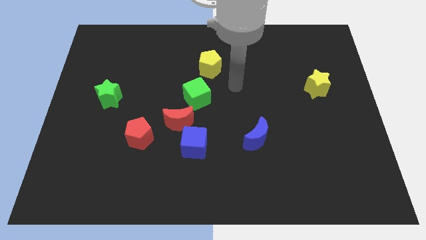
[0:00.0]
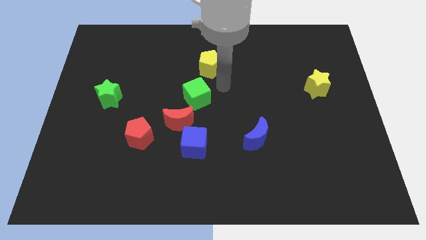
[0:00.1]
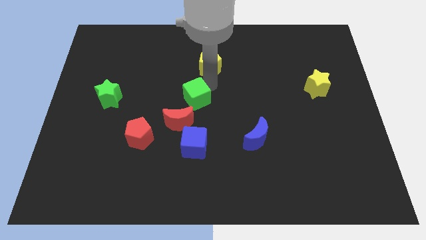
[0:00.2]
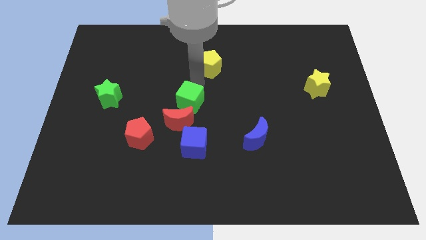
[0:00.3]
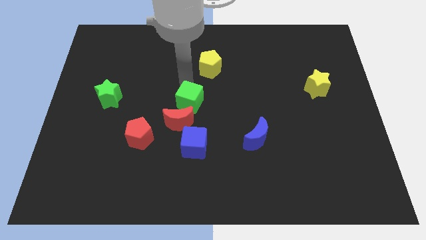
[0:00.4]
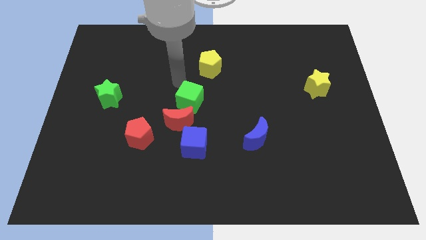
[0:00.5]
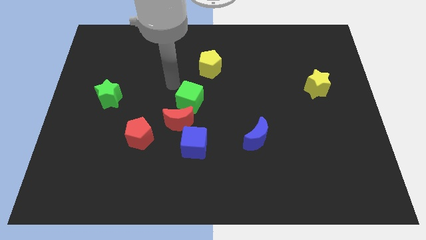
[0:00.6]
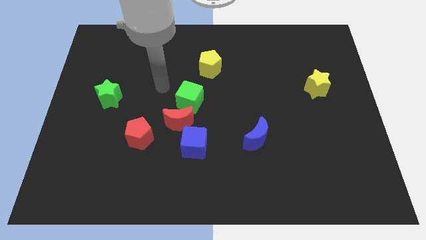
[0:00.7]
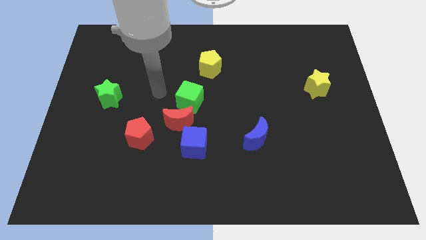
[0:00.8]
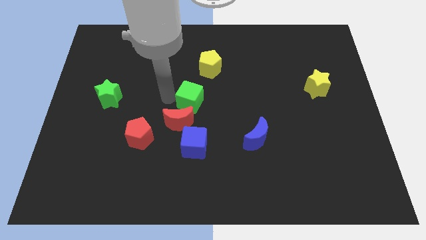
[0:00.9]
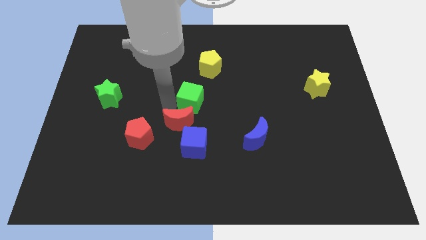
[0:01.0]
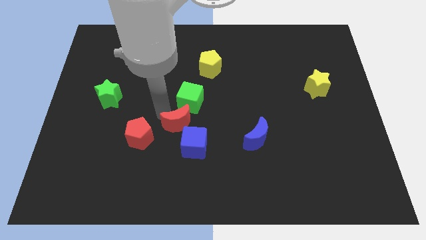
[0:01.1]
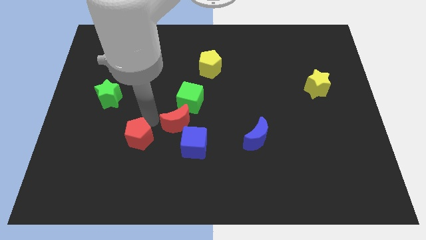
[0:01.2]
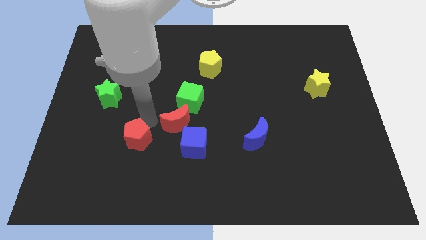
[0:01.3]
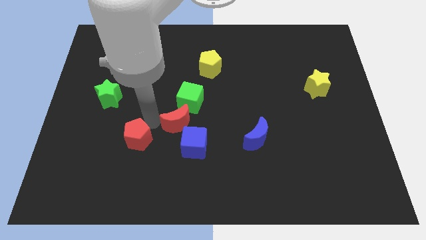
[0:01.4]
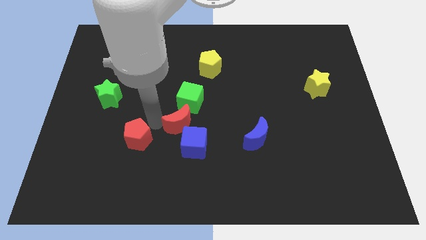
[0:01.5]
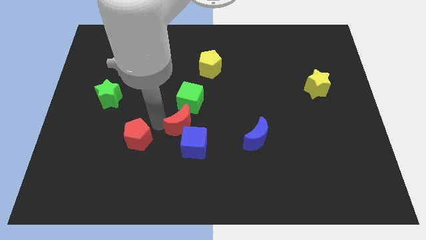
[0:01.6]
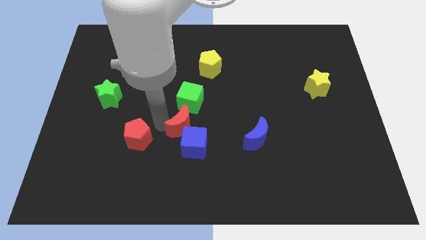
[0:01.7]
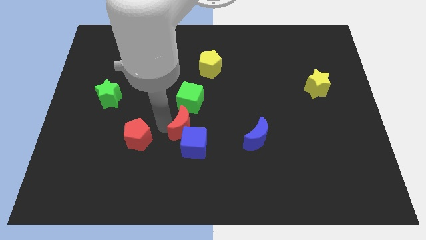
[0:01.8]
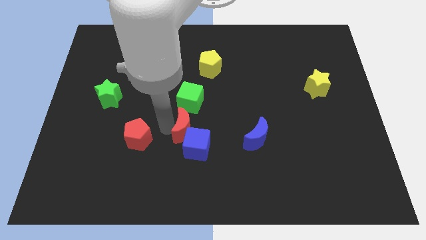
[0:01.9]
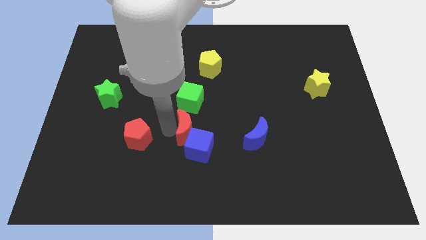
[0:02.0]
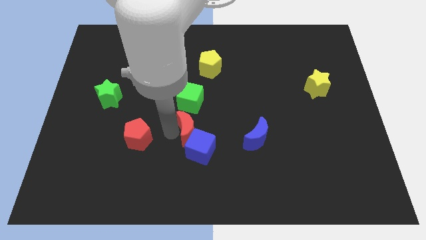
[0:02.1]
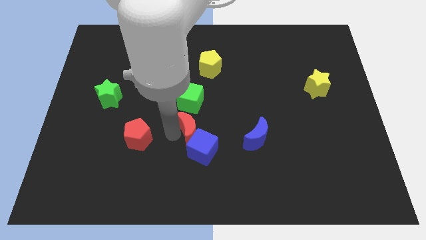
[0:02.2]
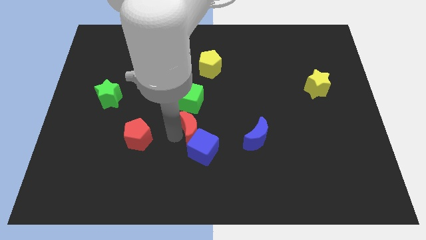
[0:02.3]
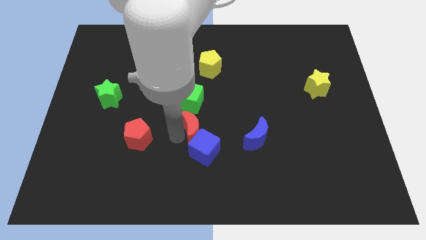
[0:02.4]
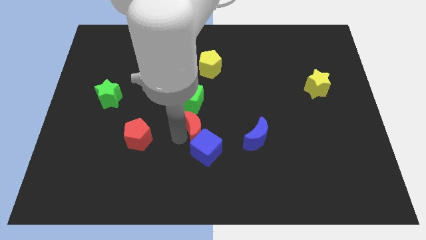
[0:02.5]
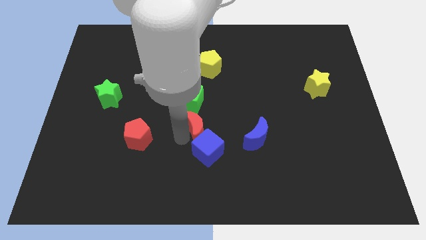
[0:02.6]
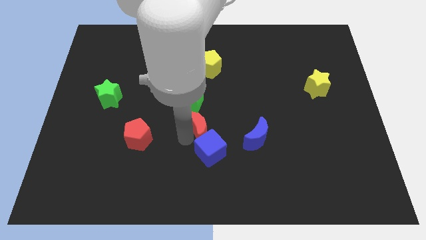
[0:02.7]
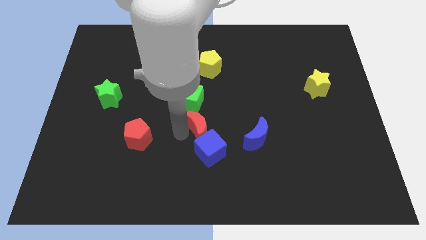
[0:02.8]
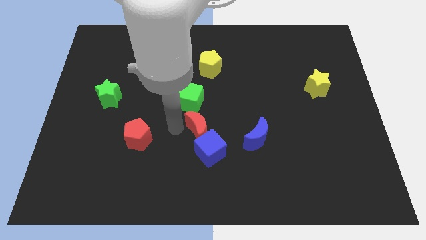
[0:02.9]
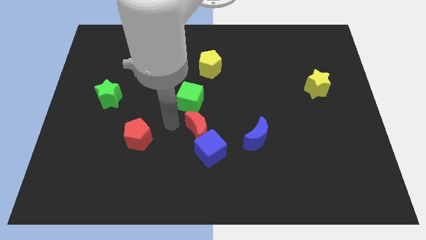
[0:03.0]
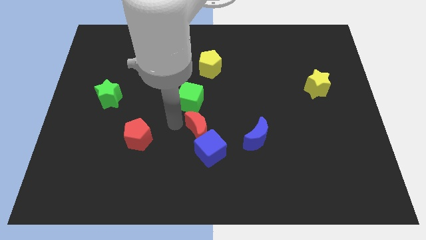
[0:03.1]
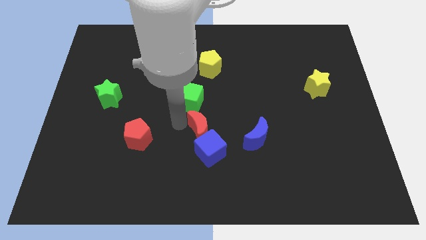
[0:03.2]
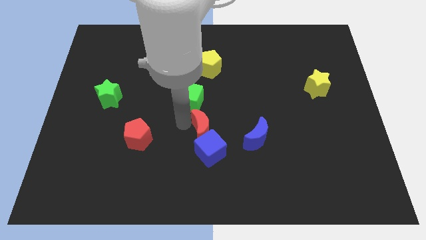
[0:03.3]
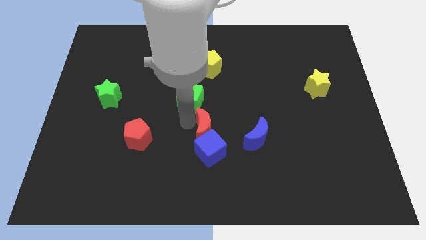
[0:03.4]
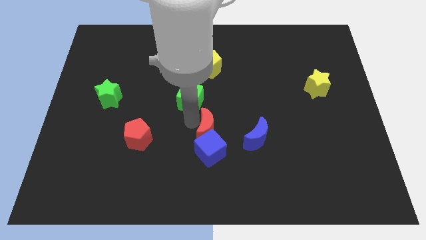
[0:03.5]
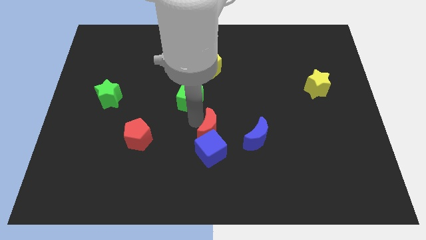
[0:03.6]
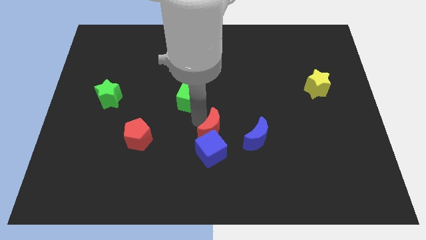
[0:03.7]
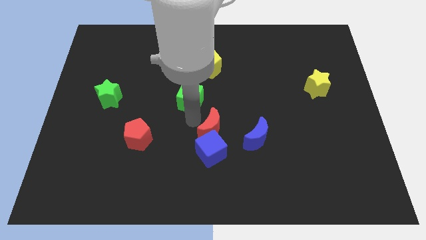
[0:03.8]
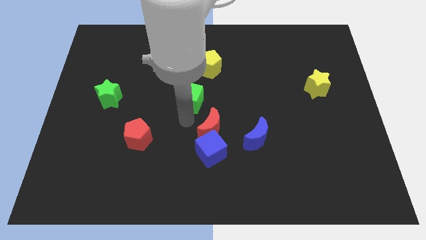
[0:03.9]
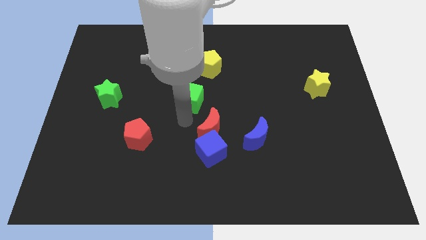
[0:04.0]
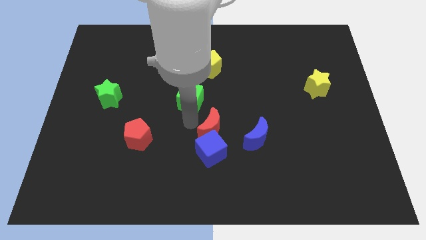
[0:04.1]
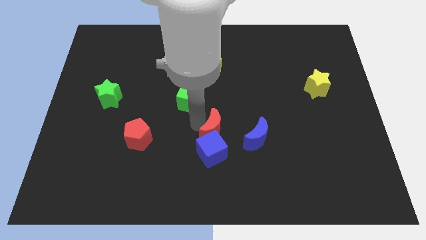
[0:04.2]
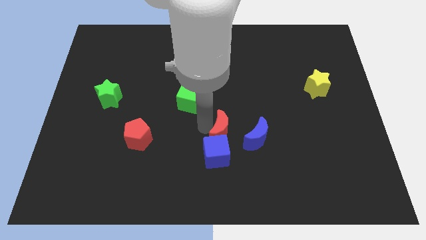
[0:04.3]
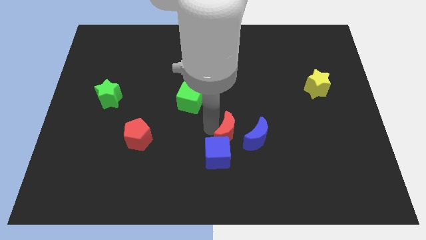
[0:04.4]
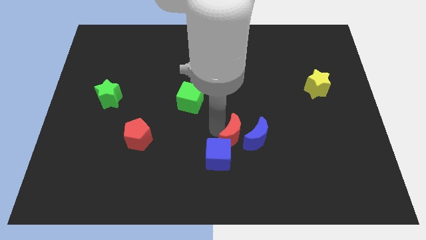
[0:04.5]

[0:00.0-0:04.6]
put the red moon next to the blue moon

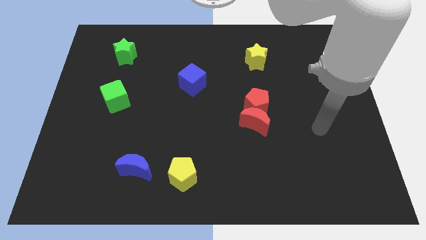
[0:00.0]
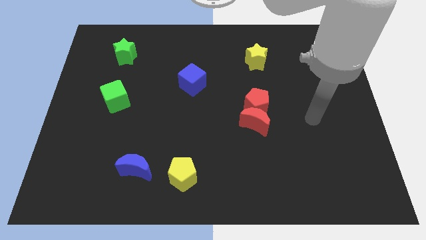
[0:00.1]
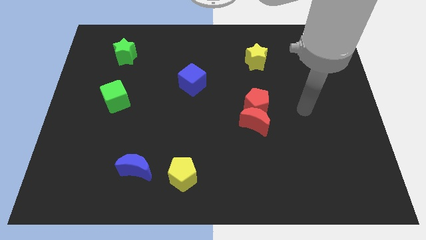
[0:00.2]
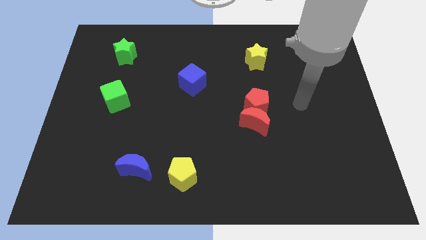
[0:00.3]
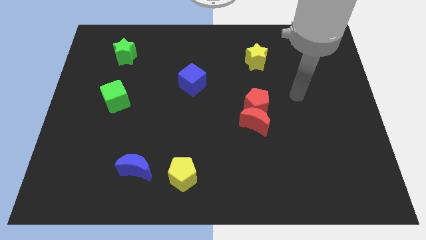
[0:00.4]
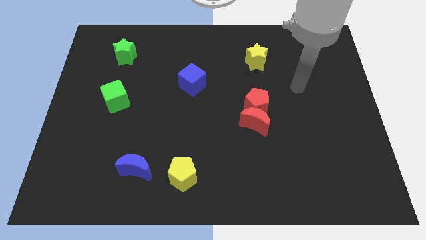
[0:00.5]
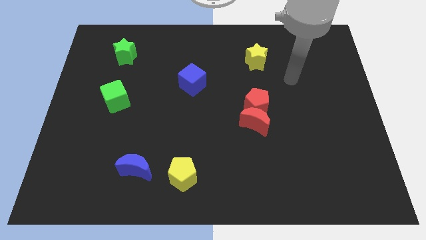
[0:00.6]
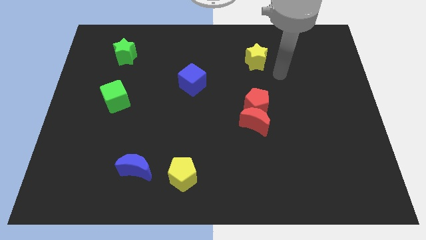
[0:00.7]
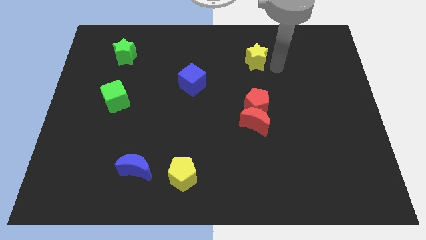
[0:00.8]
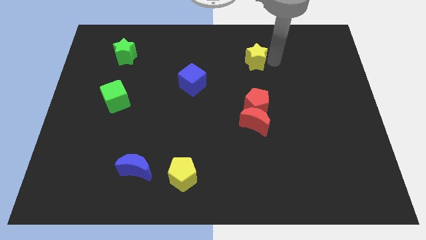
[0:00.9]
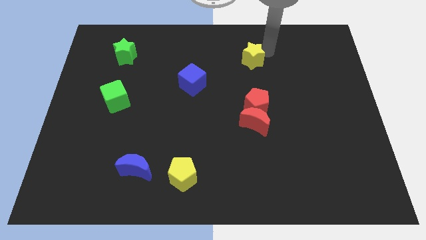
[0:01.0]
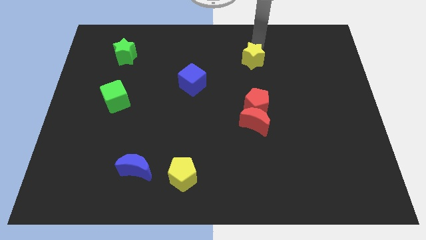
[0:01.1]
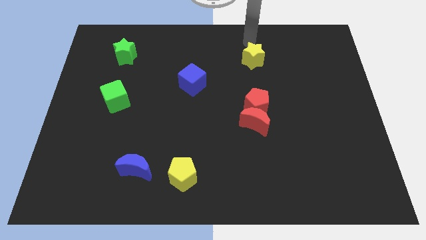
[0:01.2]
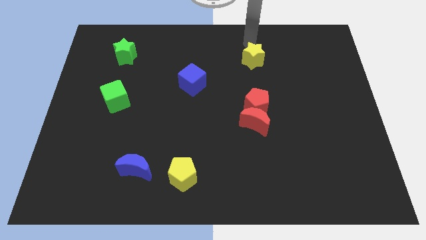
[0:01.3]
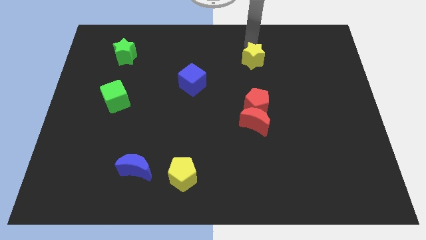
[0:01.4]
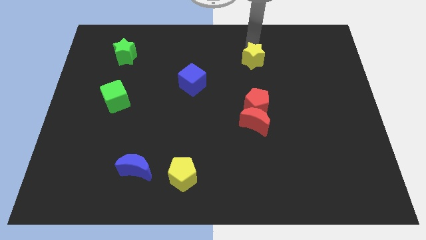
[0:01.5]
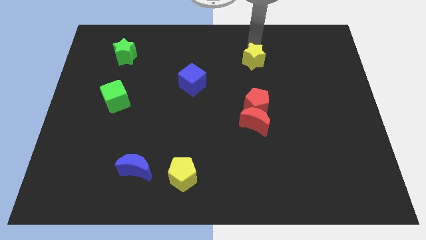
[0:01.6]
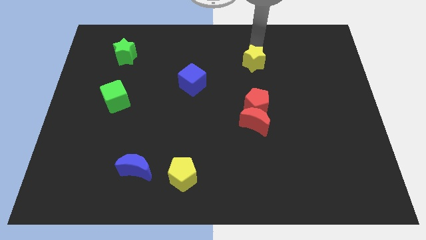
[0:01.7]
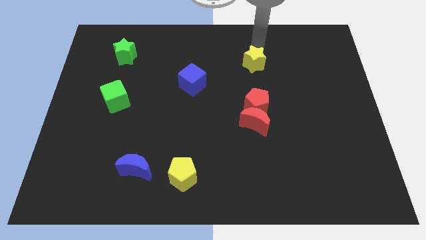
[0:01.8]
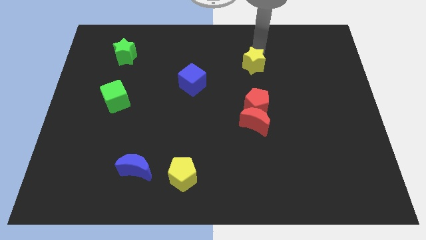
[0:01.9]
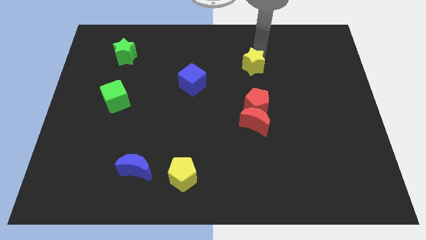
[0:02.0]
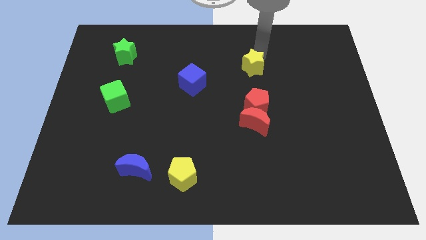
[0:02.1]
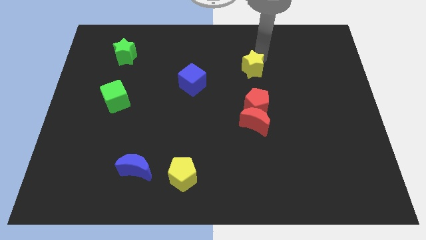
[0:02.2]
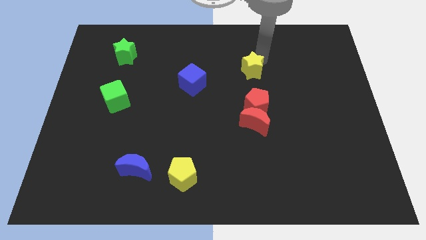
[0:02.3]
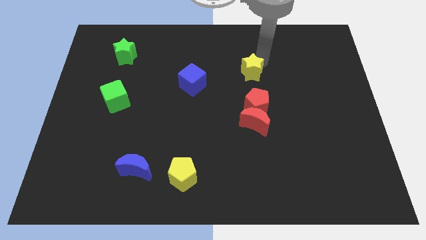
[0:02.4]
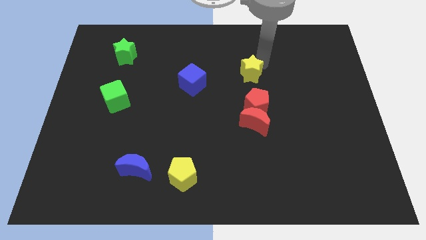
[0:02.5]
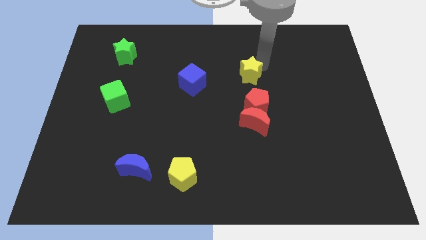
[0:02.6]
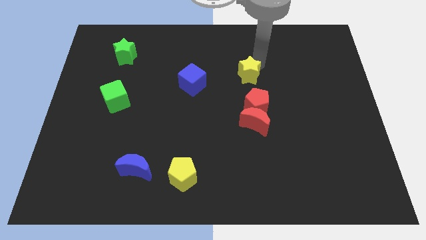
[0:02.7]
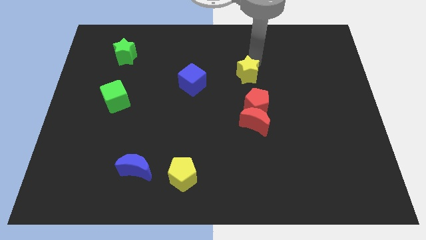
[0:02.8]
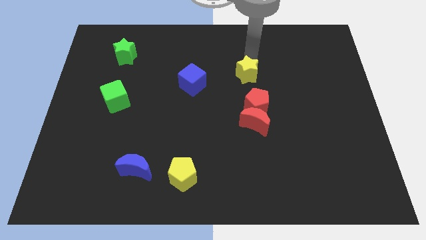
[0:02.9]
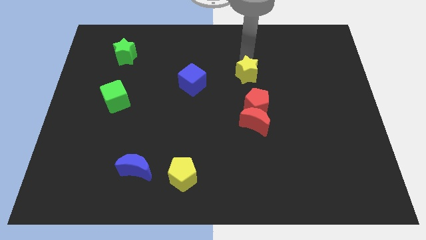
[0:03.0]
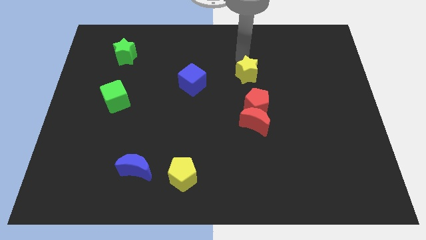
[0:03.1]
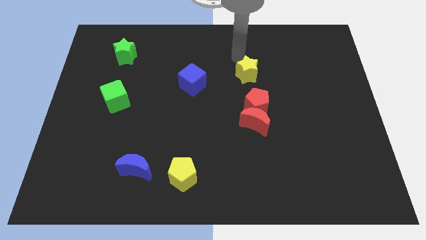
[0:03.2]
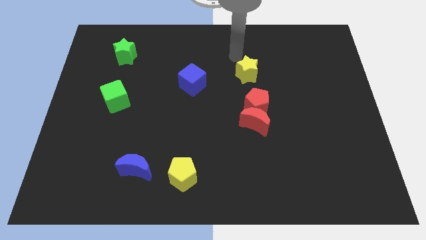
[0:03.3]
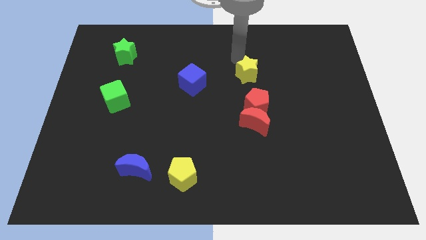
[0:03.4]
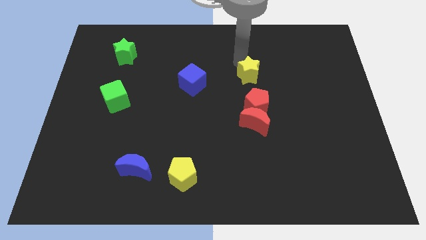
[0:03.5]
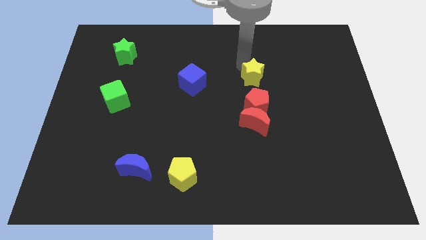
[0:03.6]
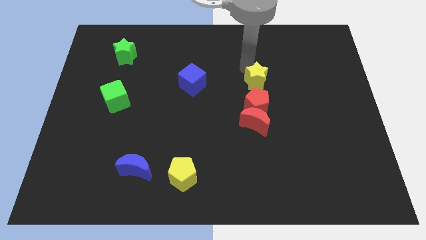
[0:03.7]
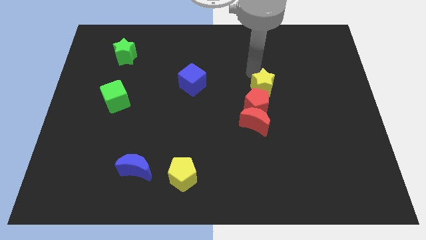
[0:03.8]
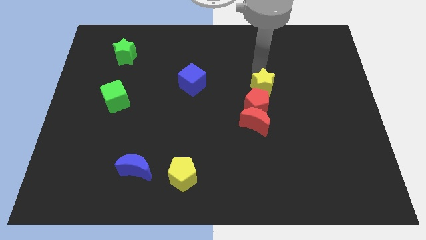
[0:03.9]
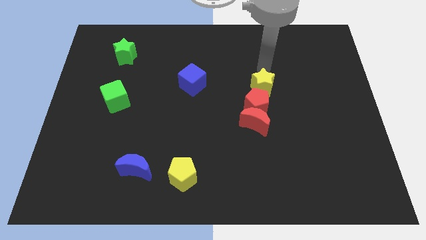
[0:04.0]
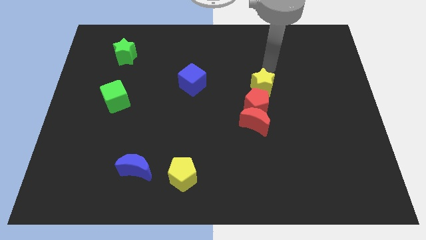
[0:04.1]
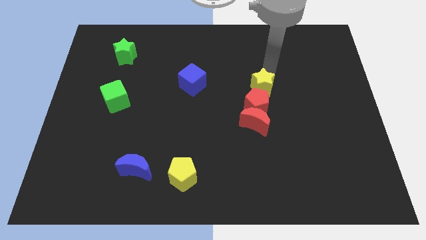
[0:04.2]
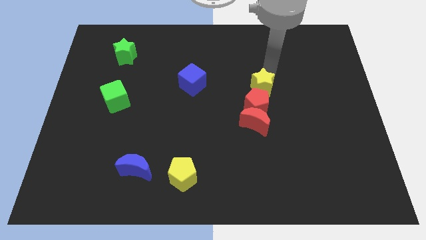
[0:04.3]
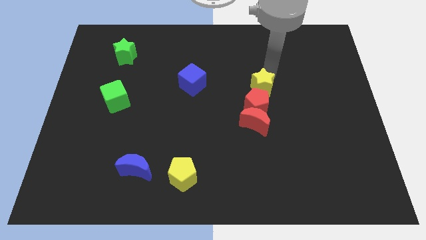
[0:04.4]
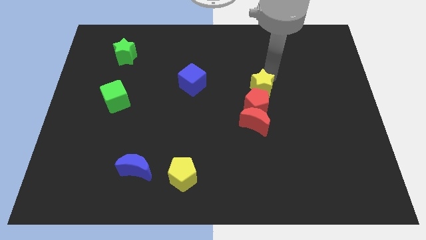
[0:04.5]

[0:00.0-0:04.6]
move the yellow star towards the red pentagon
